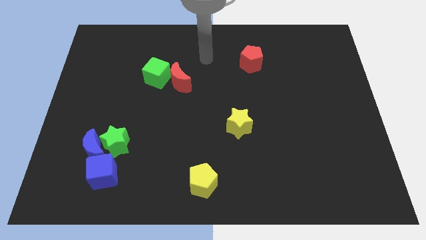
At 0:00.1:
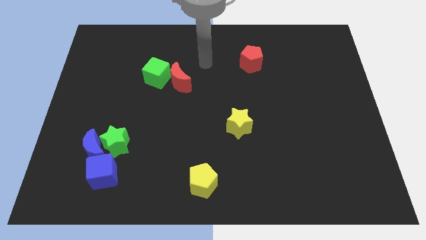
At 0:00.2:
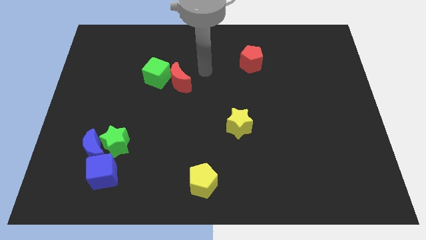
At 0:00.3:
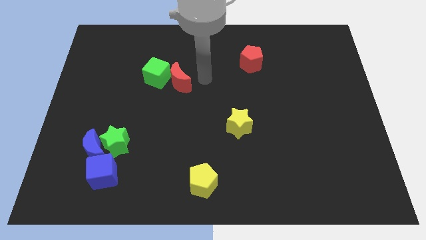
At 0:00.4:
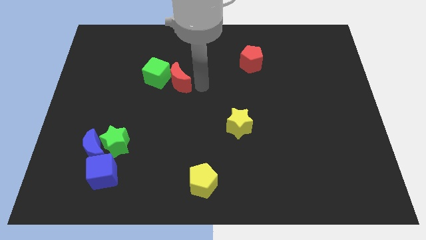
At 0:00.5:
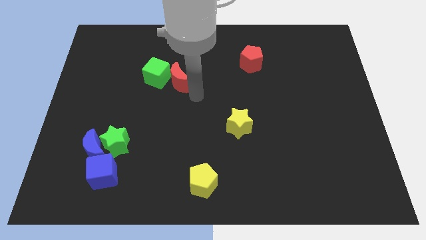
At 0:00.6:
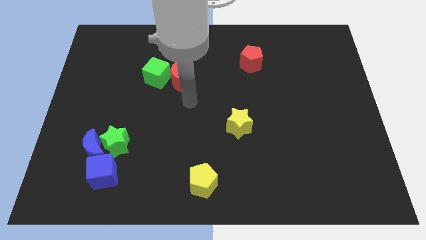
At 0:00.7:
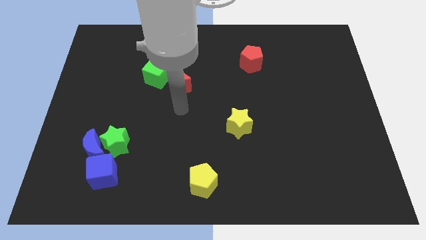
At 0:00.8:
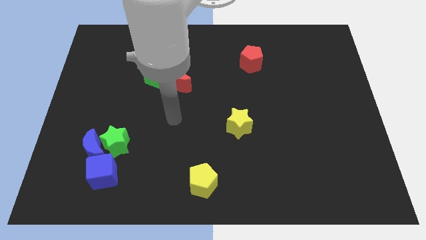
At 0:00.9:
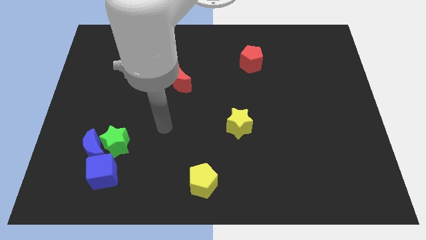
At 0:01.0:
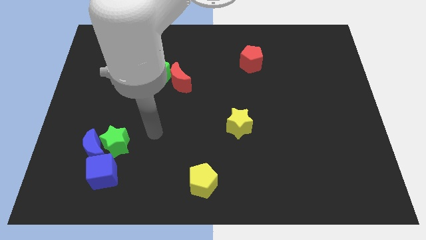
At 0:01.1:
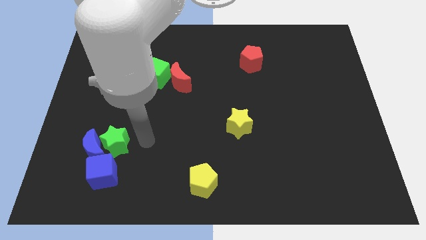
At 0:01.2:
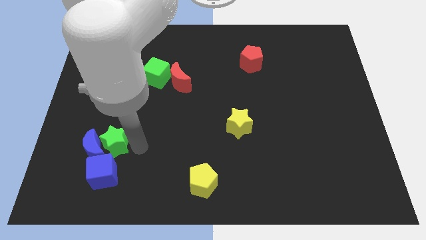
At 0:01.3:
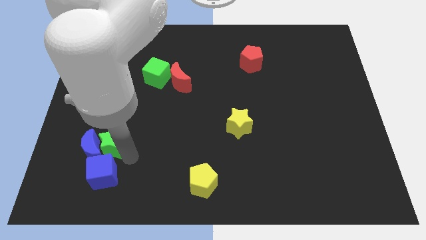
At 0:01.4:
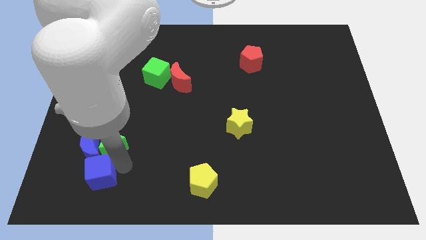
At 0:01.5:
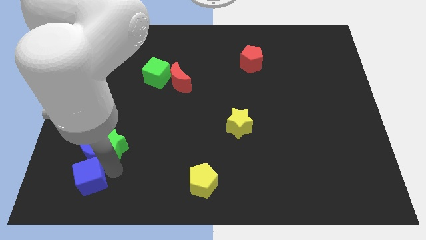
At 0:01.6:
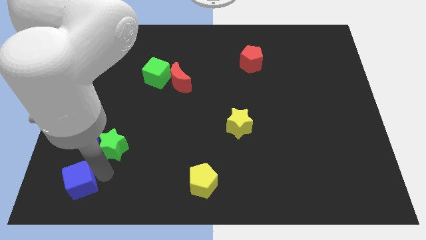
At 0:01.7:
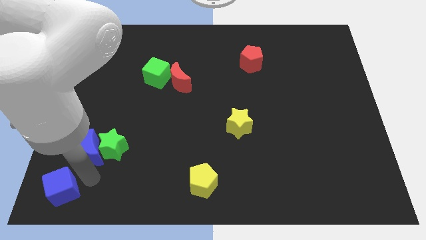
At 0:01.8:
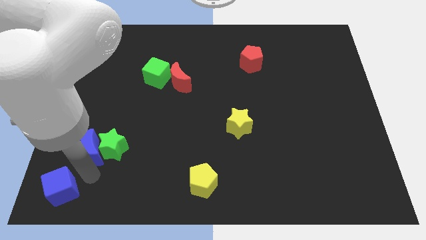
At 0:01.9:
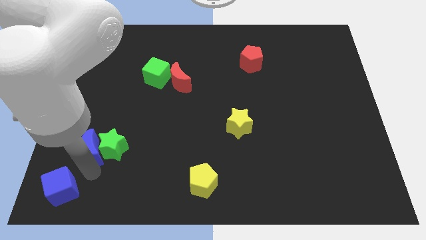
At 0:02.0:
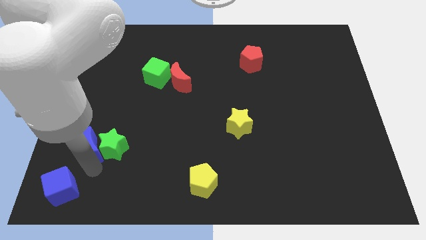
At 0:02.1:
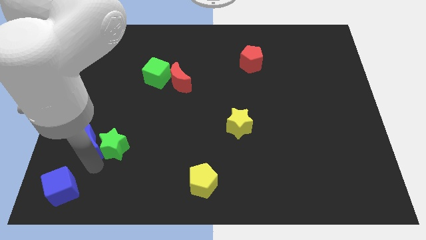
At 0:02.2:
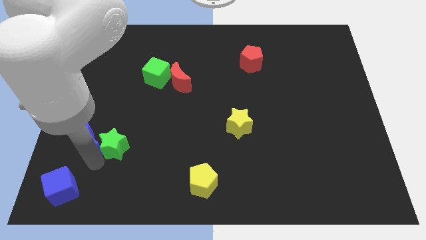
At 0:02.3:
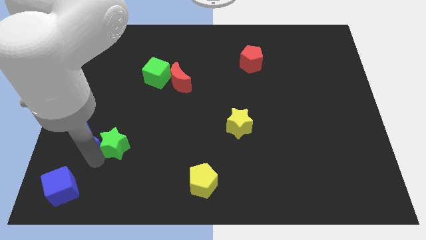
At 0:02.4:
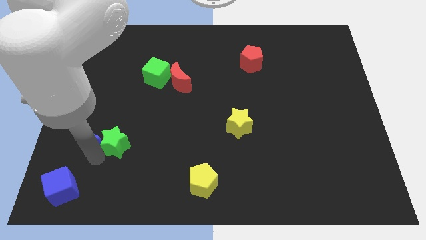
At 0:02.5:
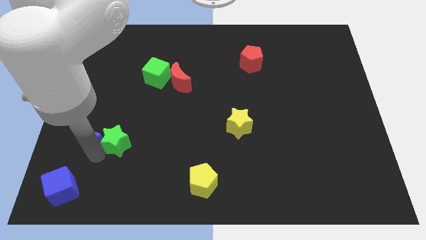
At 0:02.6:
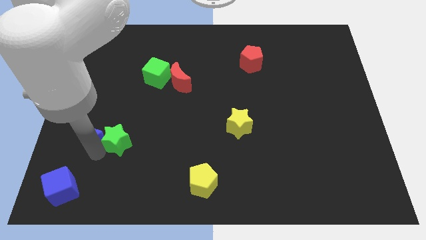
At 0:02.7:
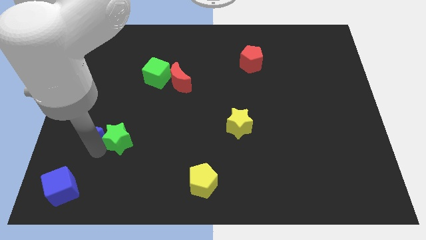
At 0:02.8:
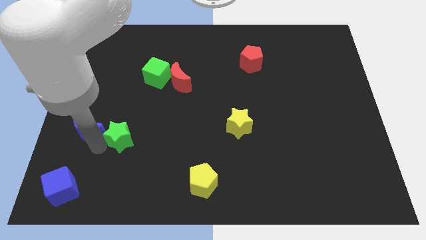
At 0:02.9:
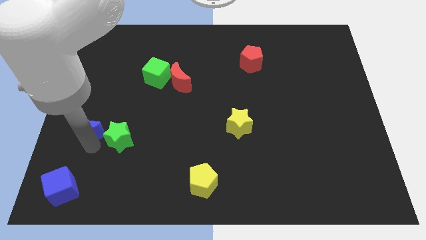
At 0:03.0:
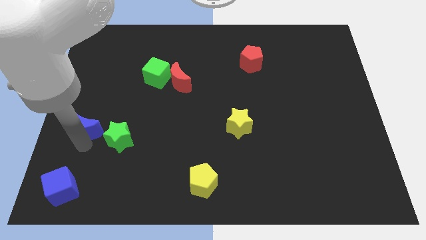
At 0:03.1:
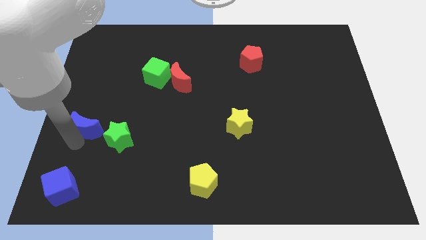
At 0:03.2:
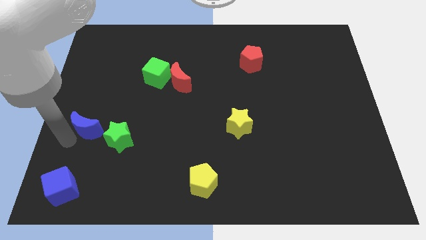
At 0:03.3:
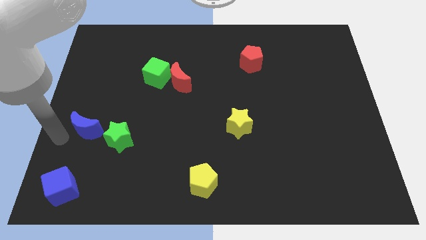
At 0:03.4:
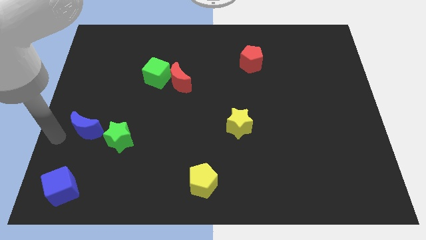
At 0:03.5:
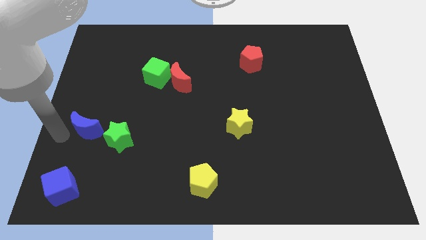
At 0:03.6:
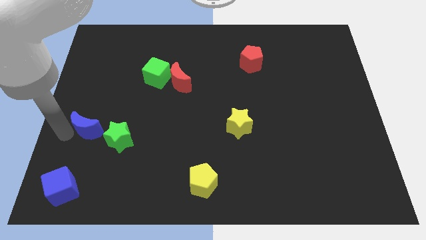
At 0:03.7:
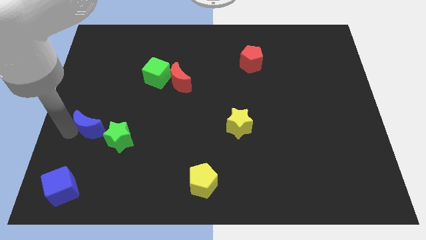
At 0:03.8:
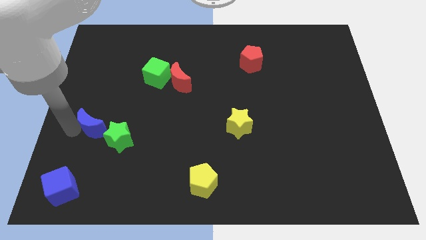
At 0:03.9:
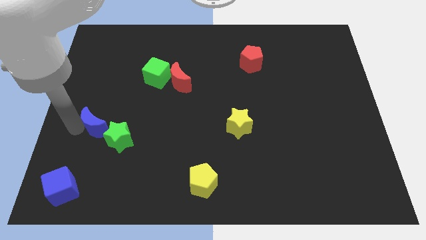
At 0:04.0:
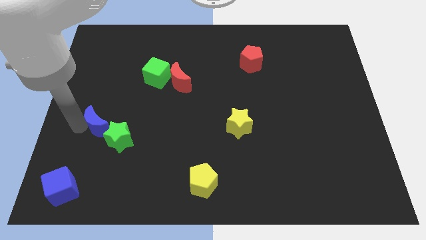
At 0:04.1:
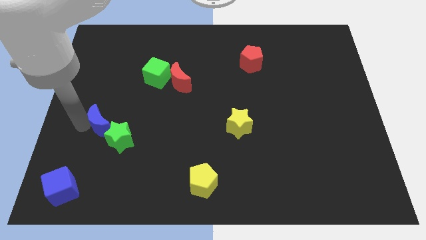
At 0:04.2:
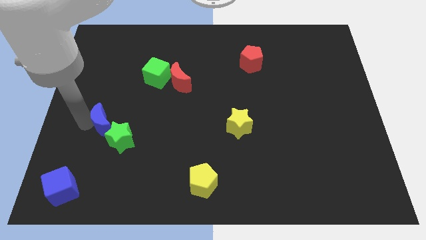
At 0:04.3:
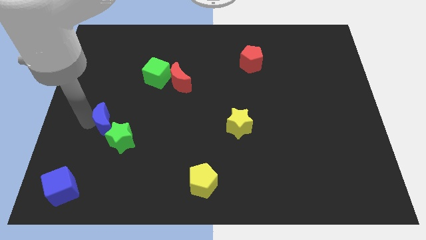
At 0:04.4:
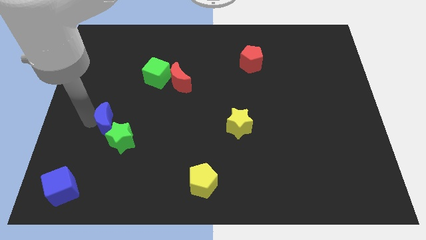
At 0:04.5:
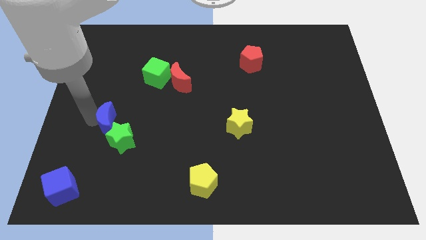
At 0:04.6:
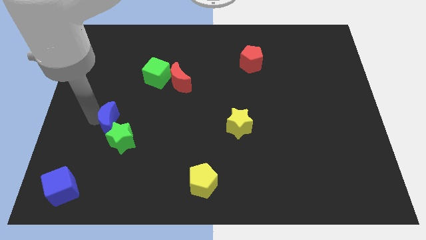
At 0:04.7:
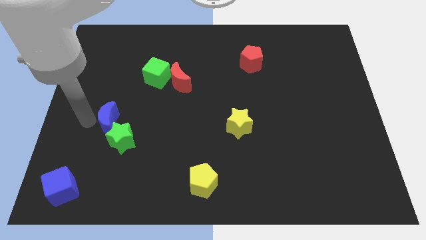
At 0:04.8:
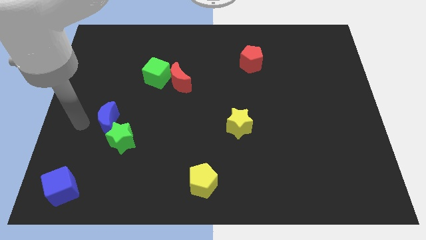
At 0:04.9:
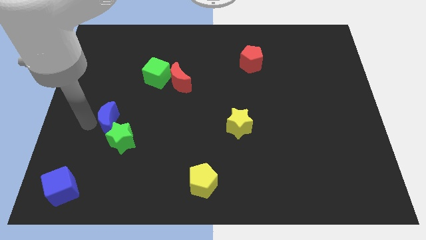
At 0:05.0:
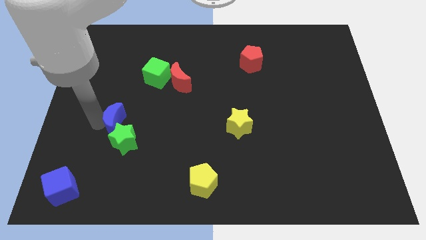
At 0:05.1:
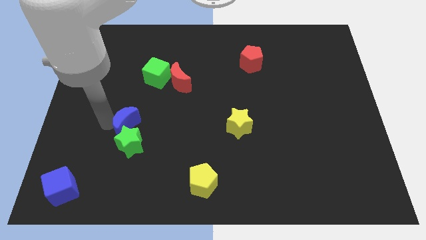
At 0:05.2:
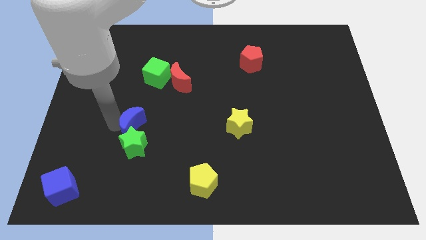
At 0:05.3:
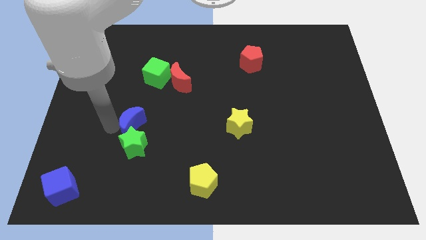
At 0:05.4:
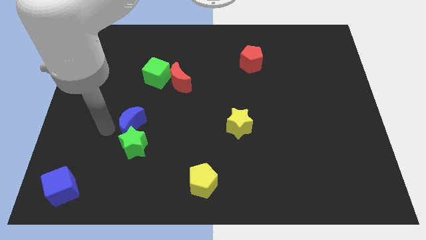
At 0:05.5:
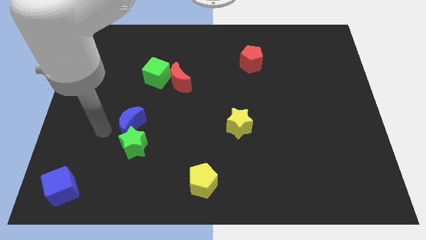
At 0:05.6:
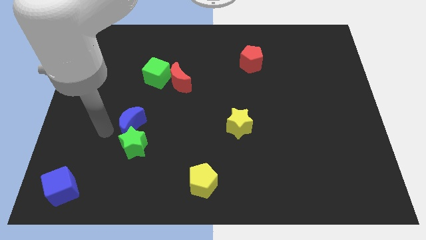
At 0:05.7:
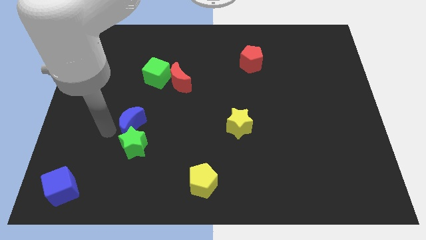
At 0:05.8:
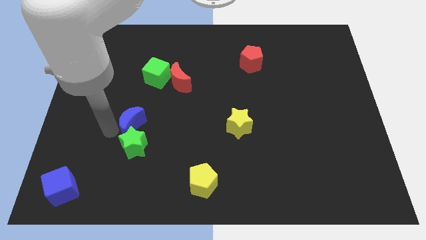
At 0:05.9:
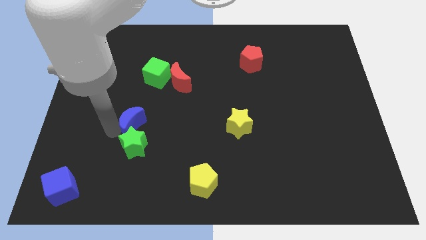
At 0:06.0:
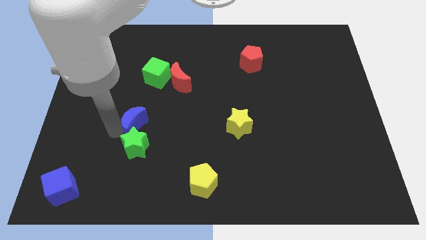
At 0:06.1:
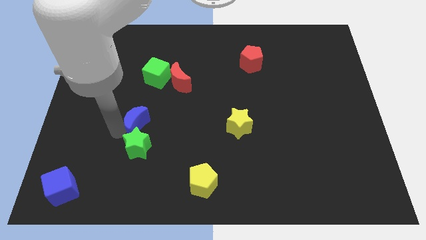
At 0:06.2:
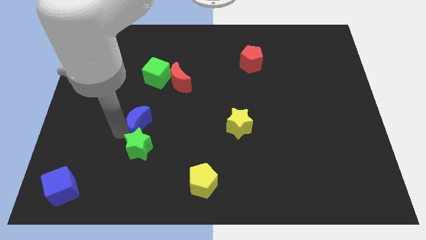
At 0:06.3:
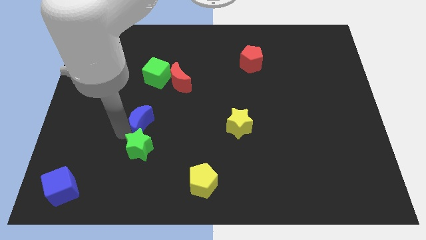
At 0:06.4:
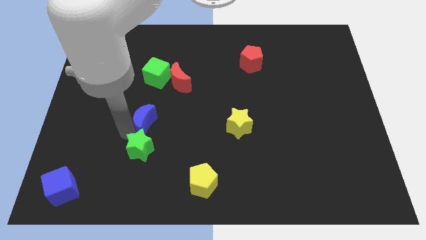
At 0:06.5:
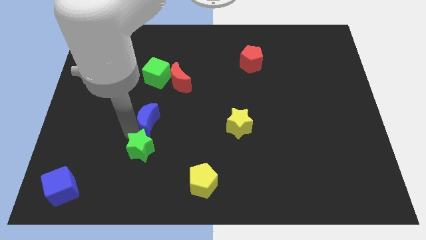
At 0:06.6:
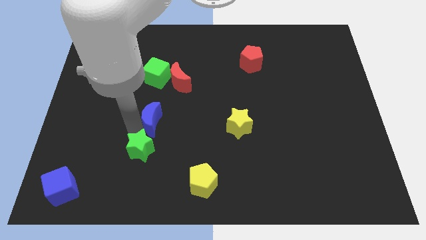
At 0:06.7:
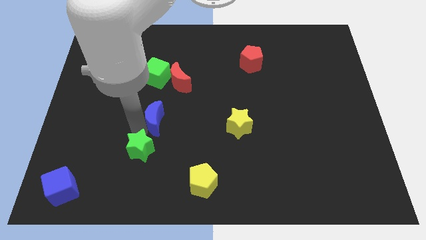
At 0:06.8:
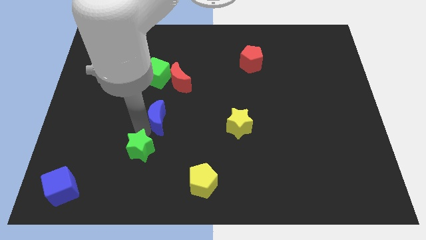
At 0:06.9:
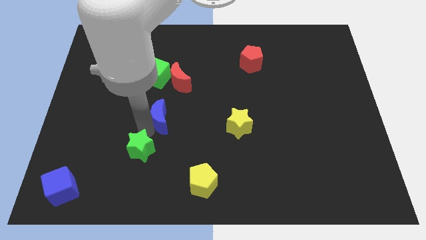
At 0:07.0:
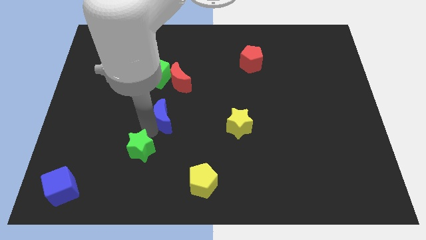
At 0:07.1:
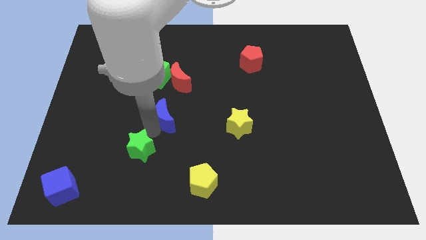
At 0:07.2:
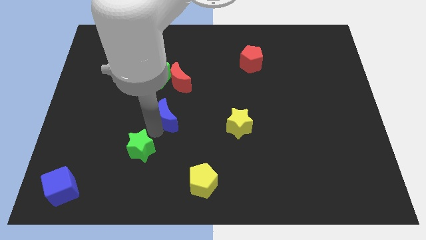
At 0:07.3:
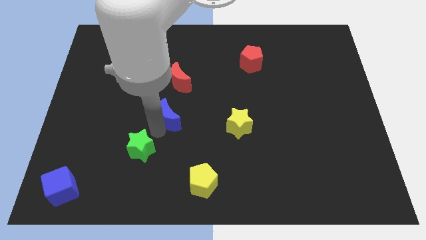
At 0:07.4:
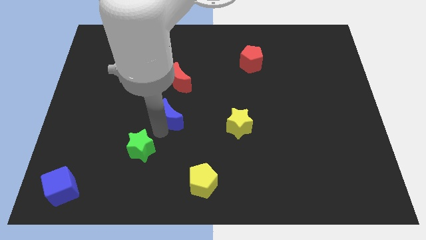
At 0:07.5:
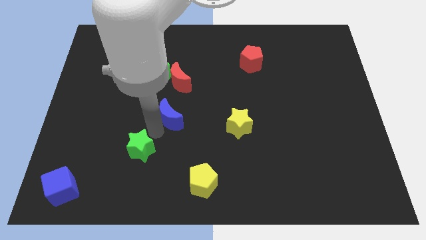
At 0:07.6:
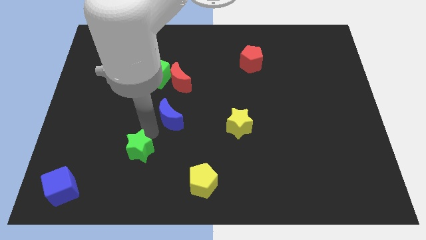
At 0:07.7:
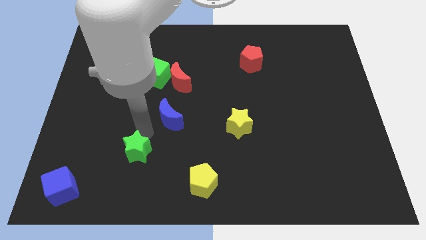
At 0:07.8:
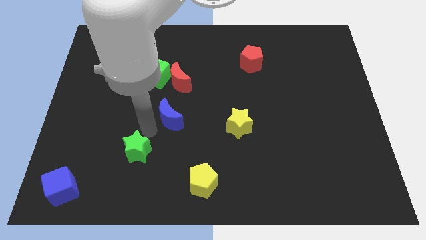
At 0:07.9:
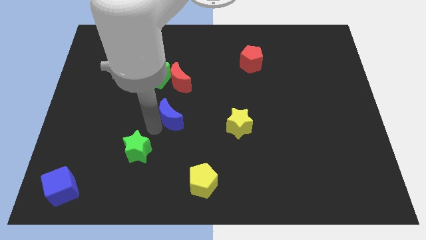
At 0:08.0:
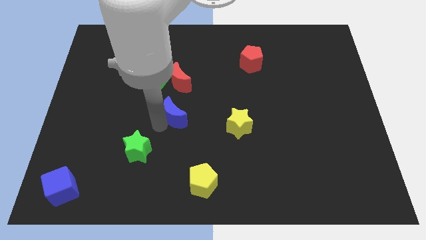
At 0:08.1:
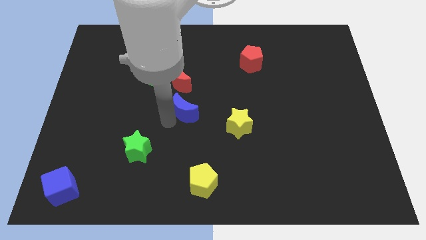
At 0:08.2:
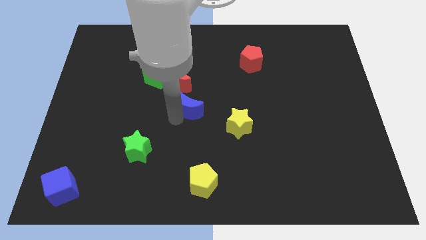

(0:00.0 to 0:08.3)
slide the blue moon to the bottom right side of the red moon
